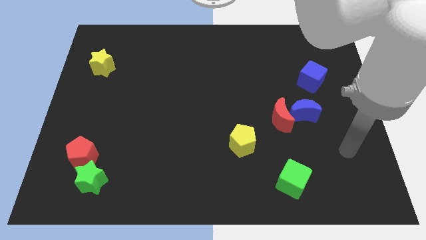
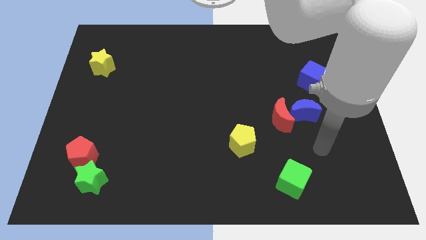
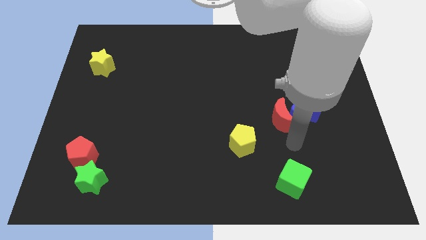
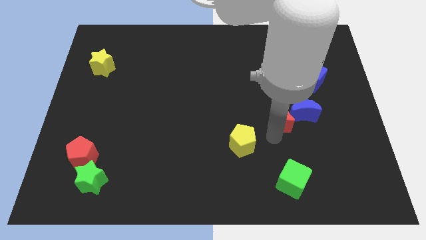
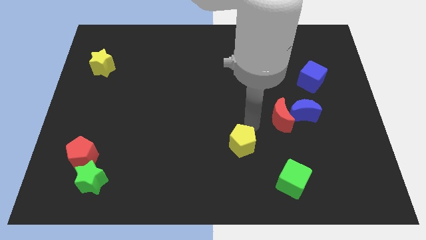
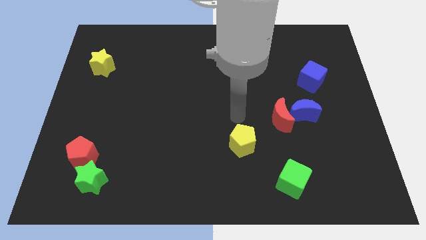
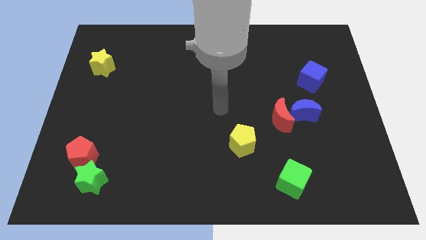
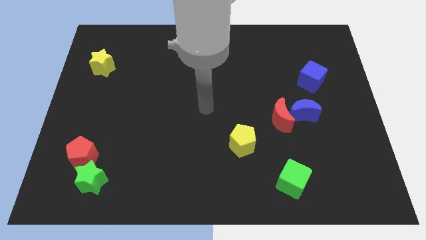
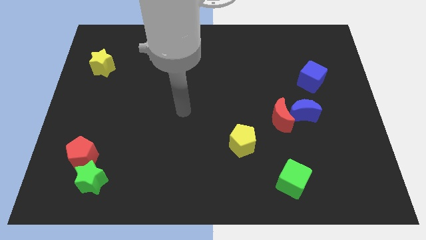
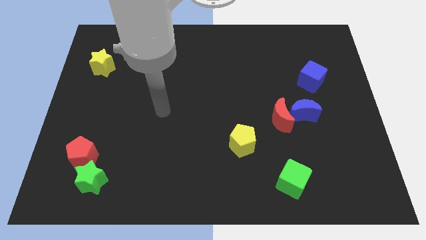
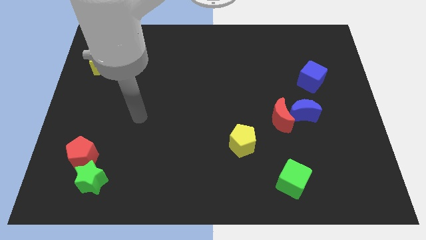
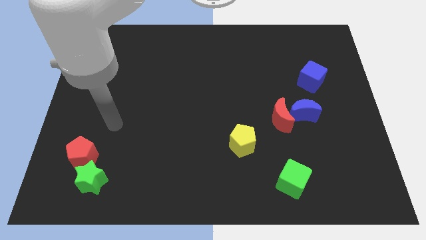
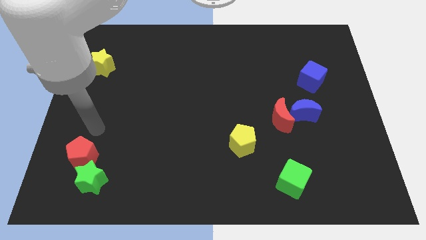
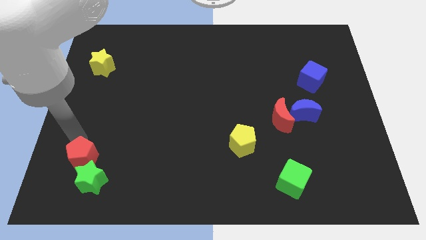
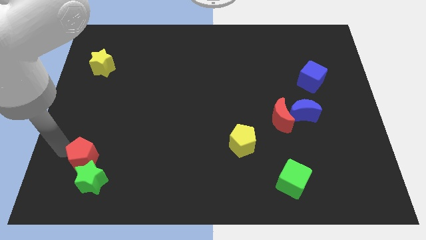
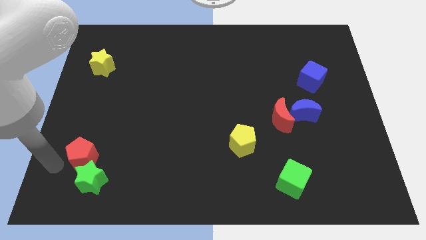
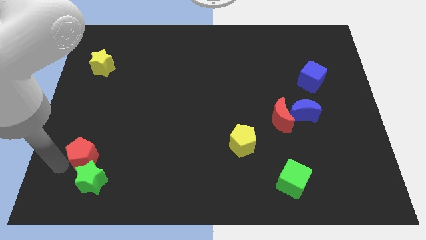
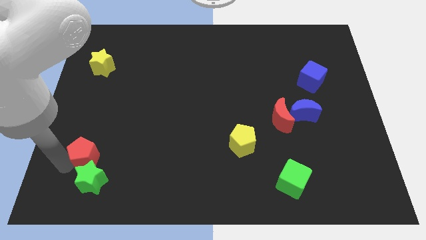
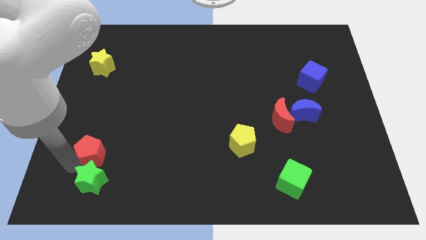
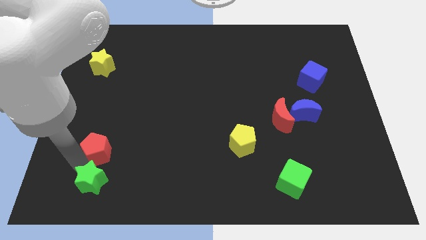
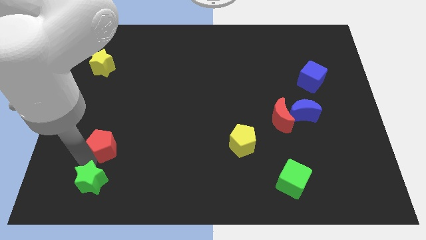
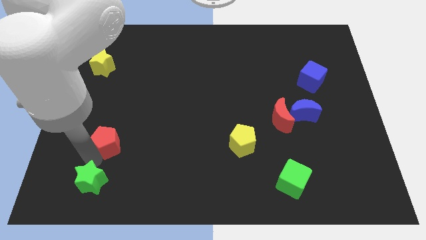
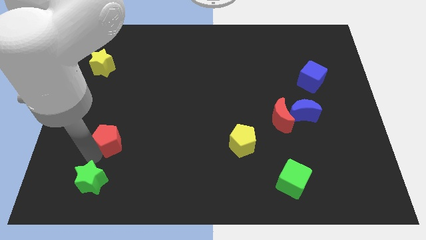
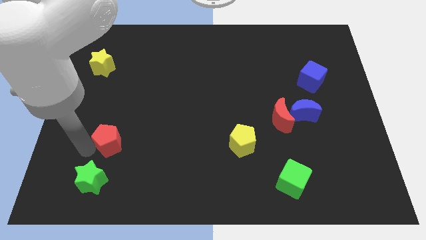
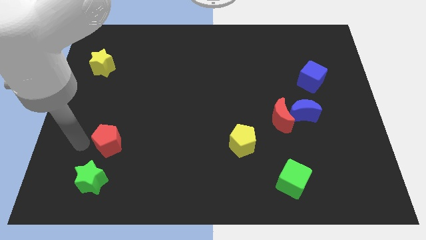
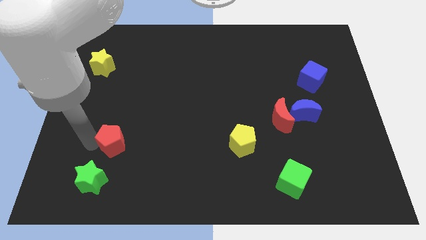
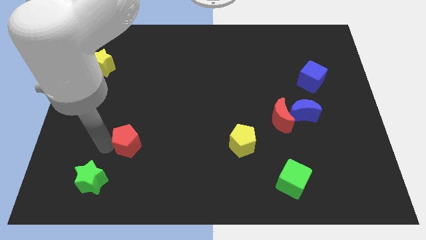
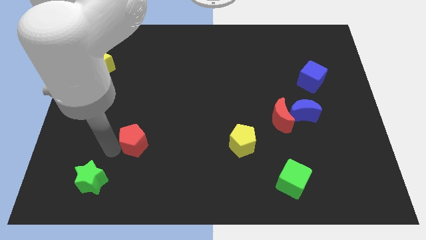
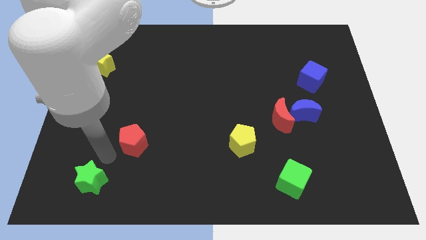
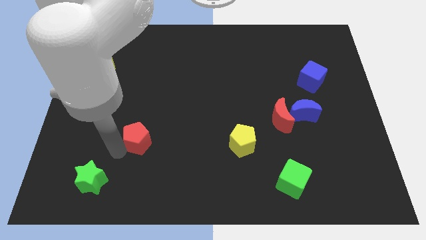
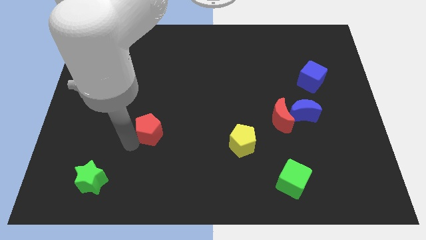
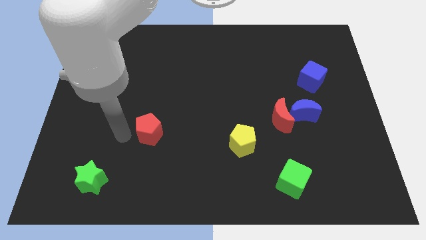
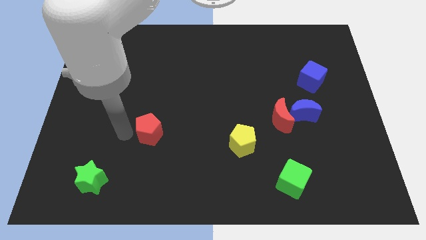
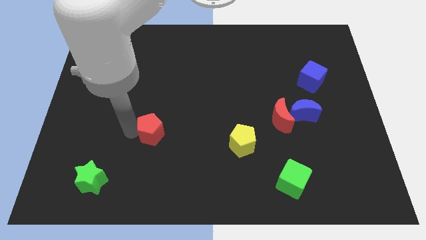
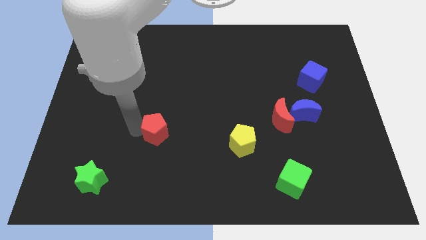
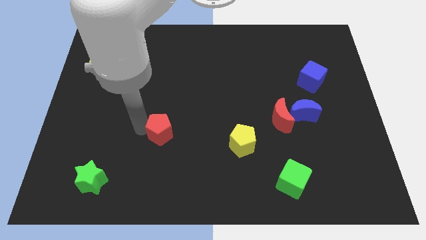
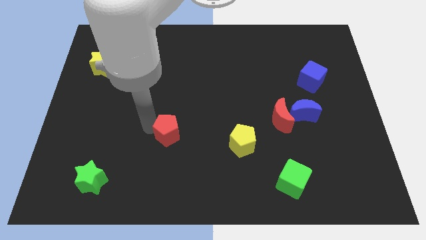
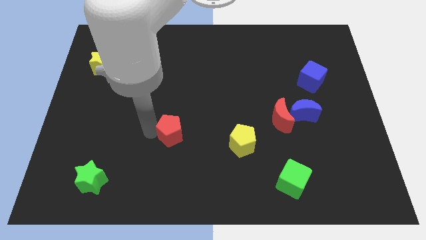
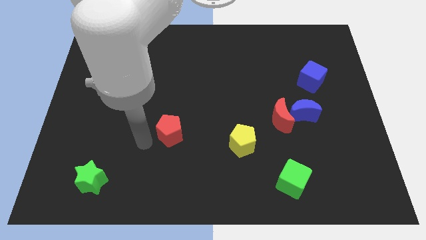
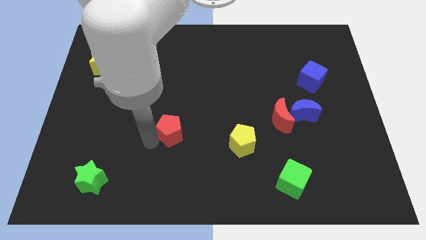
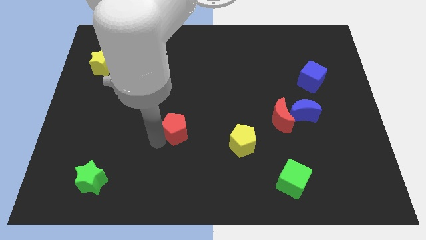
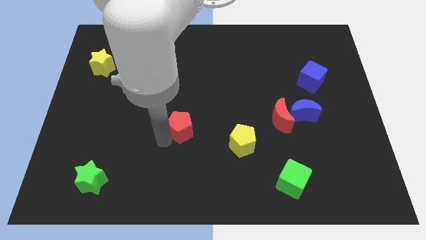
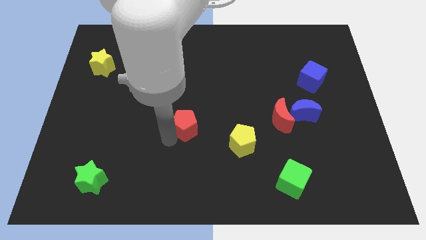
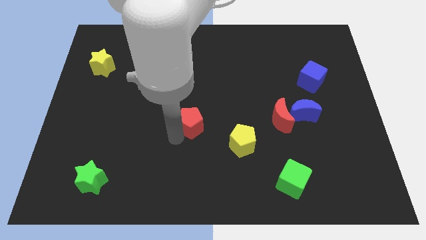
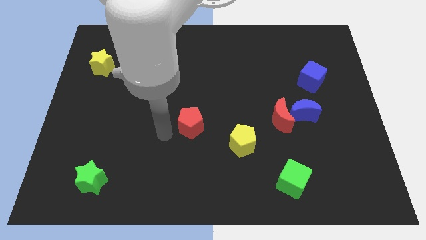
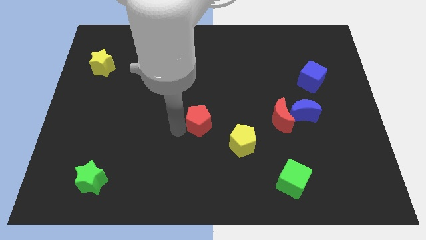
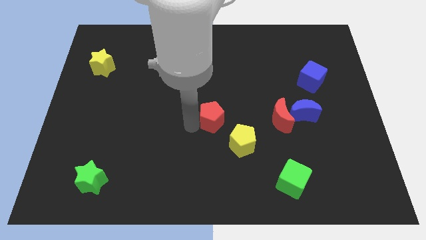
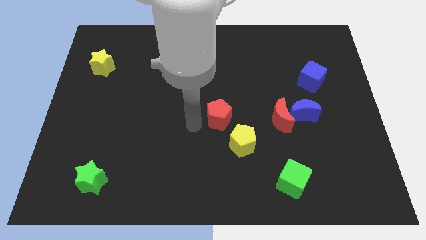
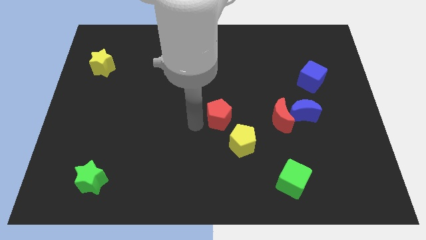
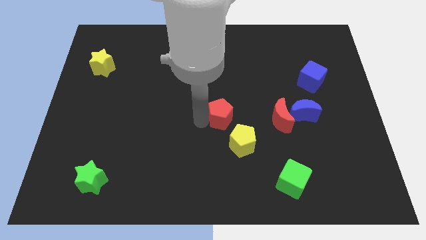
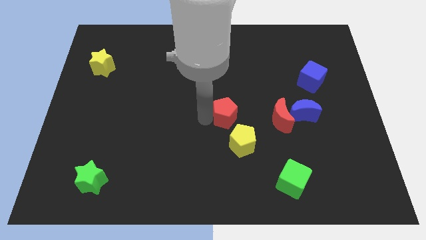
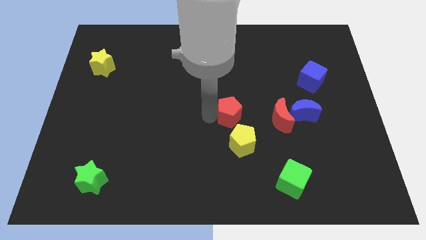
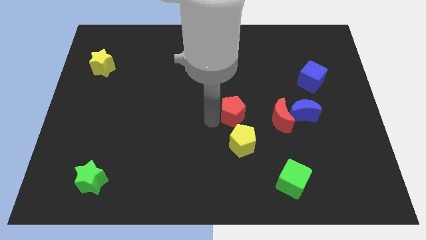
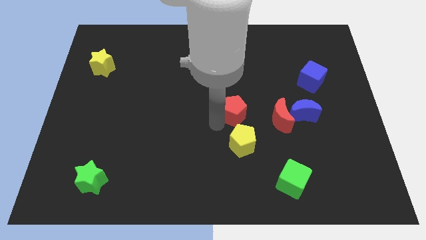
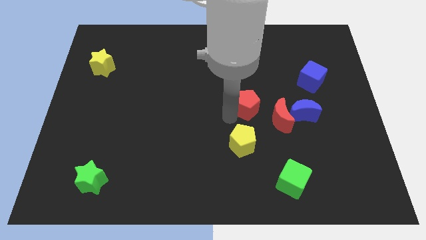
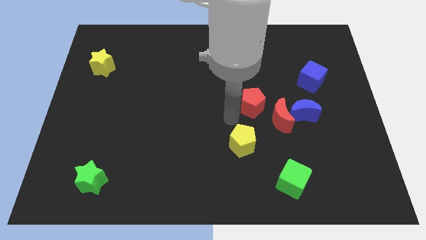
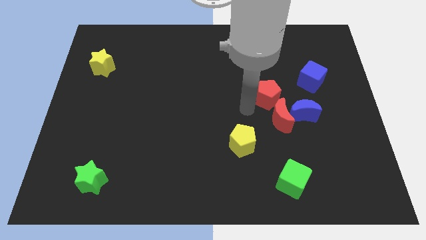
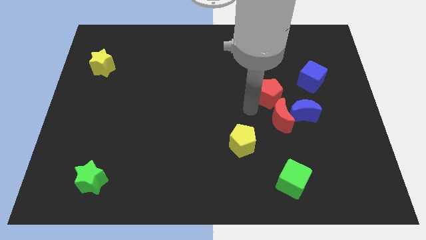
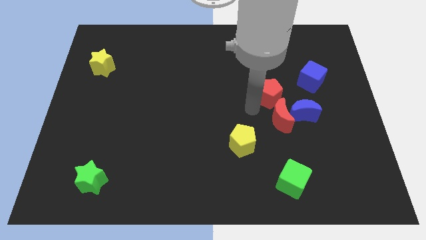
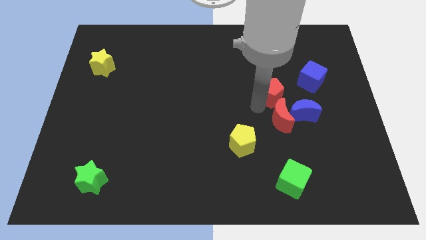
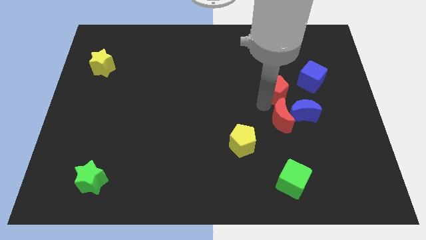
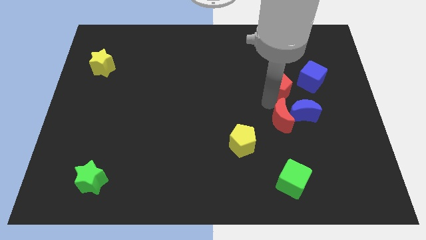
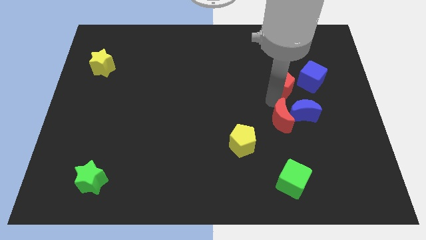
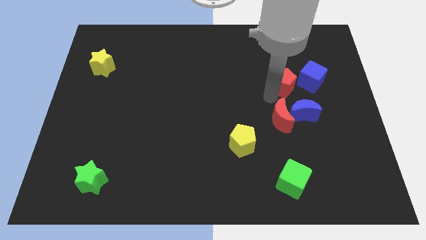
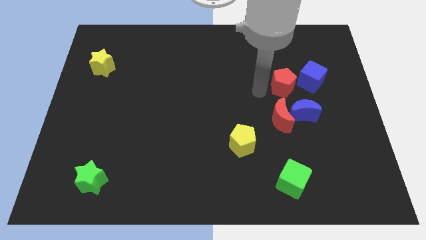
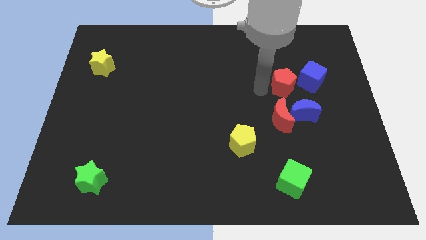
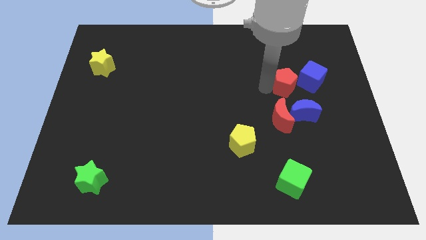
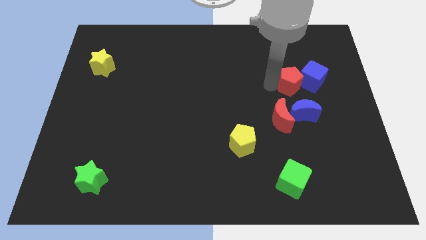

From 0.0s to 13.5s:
slide the red pentagon next to the blue cube
